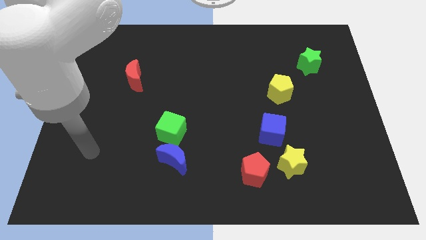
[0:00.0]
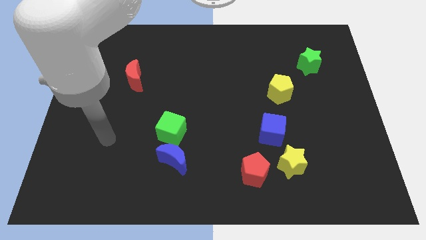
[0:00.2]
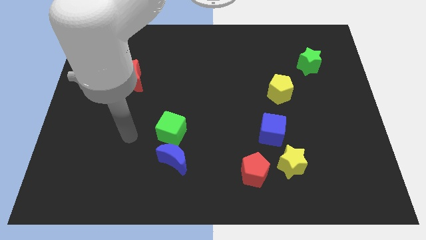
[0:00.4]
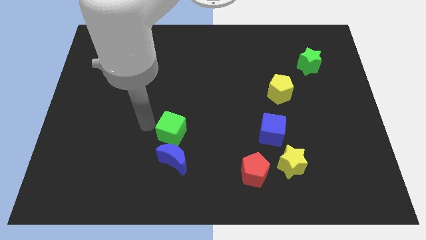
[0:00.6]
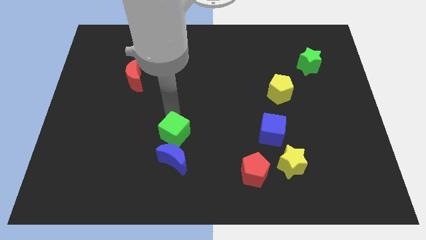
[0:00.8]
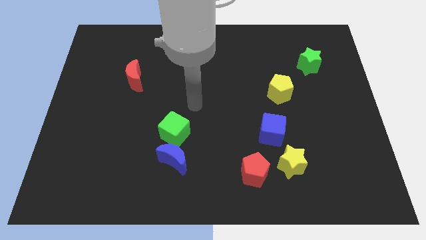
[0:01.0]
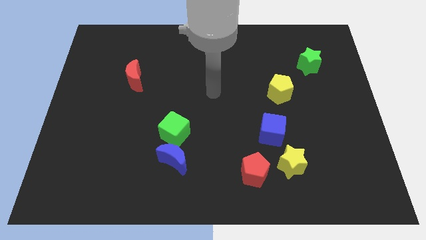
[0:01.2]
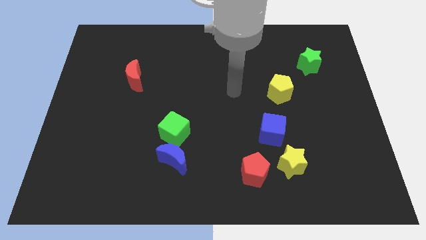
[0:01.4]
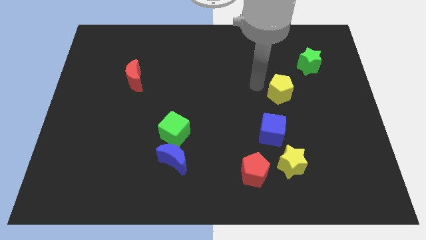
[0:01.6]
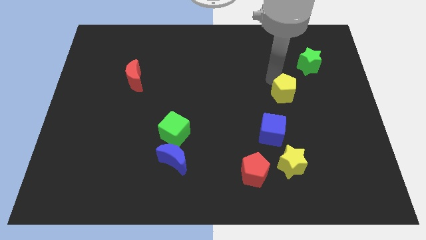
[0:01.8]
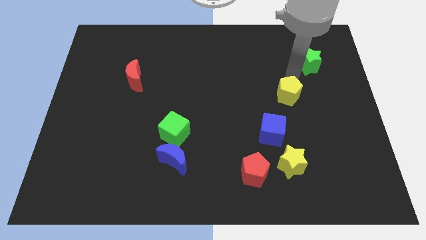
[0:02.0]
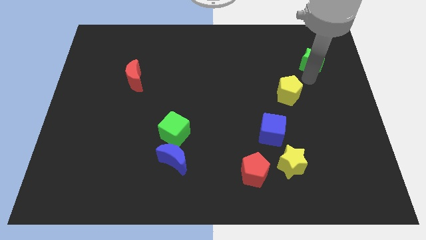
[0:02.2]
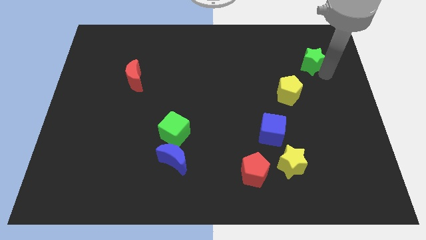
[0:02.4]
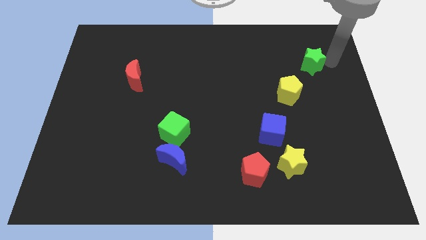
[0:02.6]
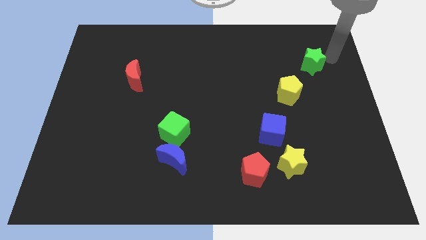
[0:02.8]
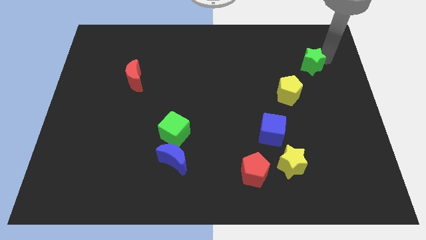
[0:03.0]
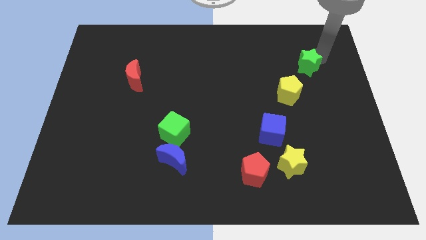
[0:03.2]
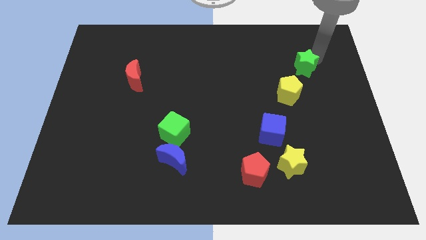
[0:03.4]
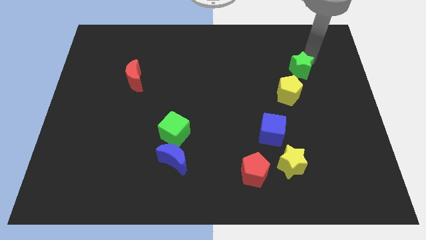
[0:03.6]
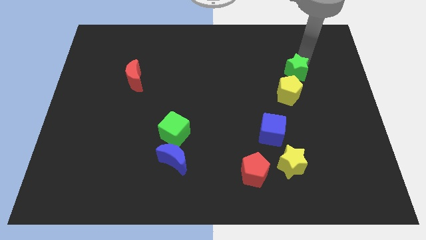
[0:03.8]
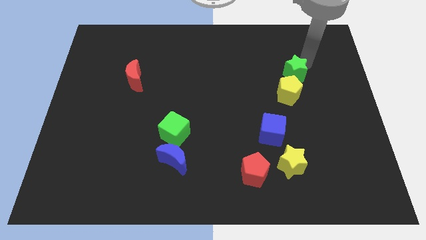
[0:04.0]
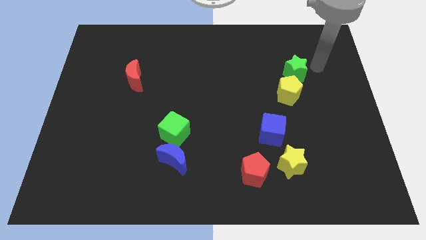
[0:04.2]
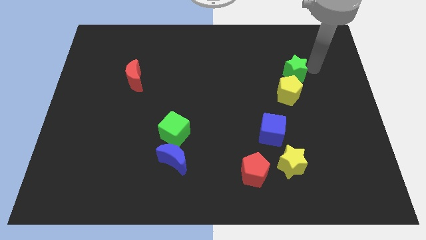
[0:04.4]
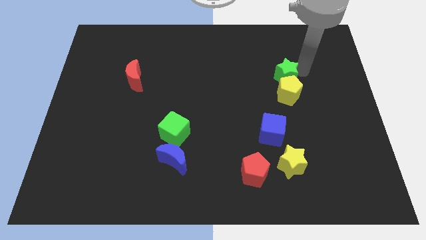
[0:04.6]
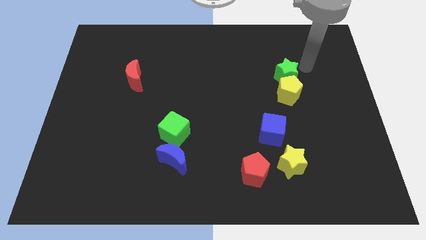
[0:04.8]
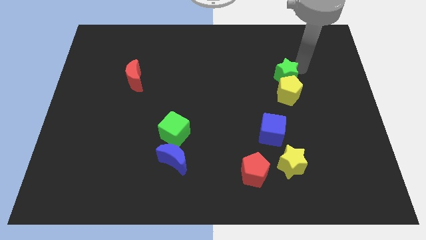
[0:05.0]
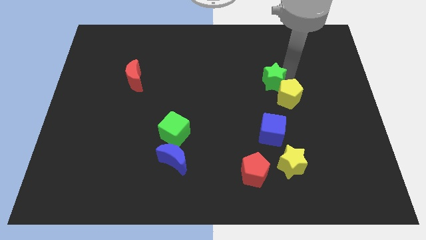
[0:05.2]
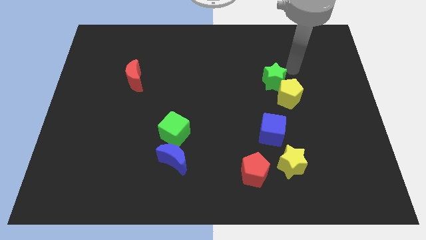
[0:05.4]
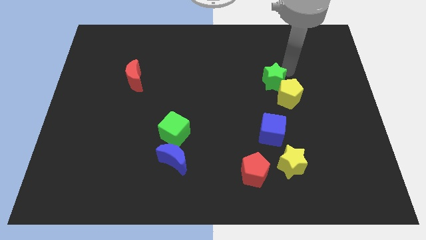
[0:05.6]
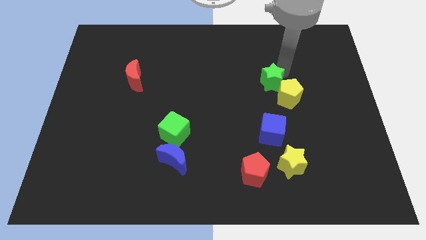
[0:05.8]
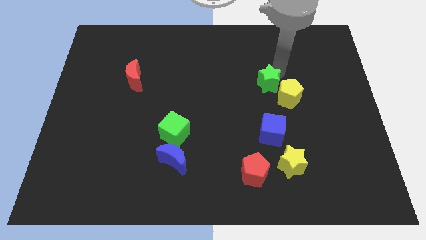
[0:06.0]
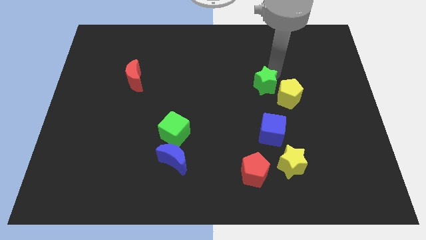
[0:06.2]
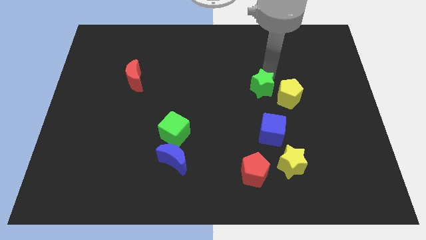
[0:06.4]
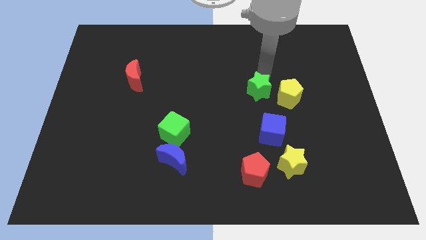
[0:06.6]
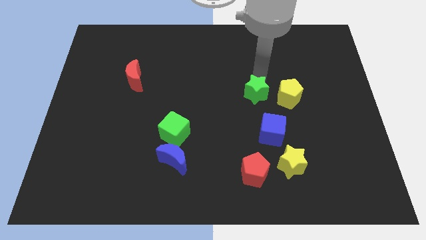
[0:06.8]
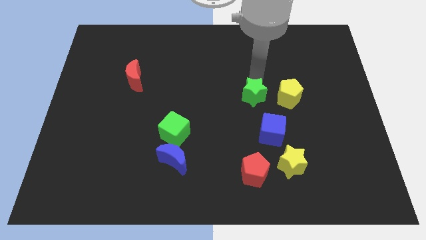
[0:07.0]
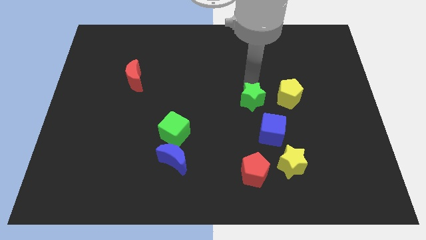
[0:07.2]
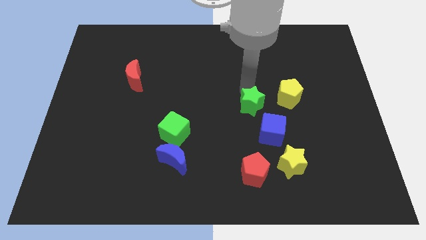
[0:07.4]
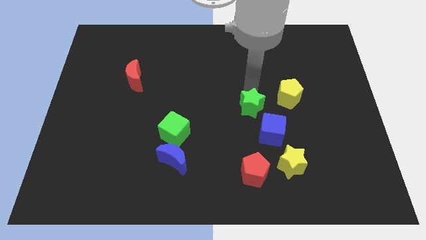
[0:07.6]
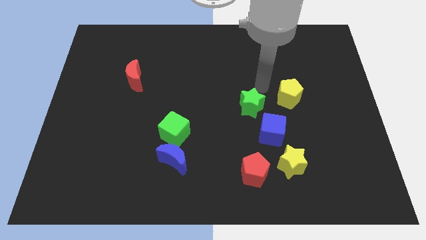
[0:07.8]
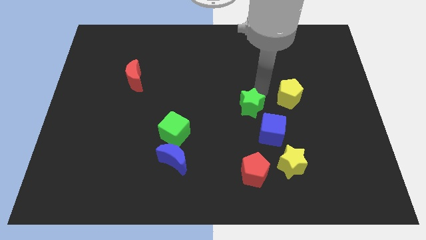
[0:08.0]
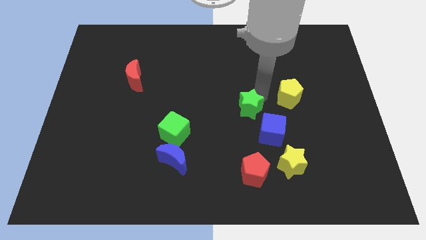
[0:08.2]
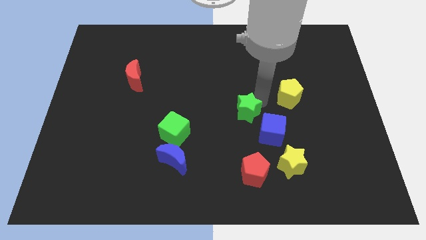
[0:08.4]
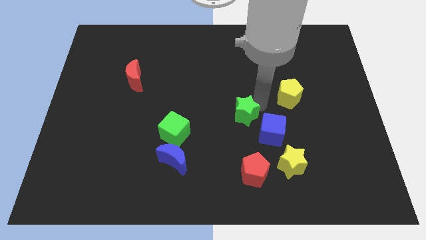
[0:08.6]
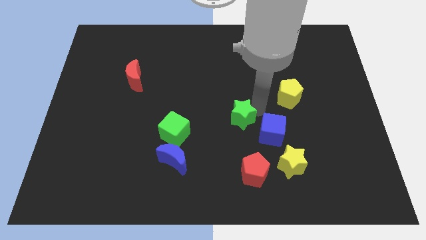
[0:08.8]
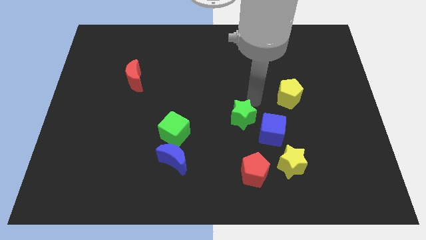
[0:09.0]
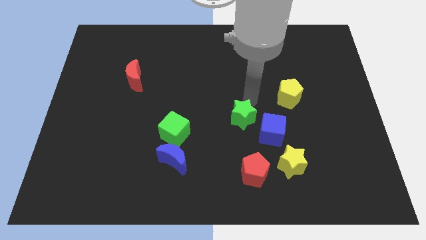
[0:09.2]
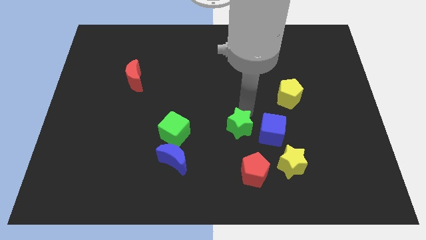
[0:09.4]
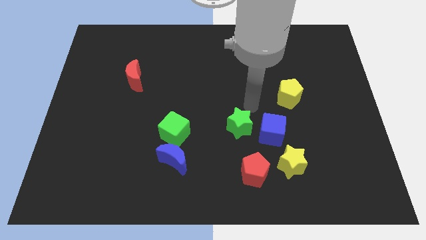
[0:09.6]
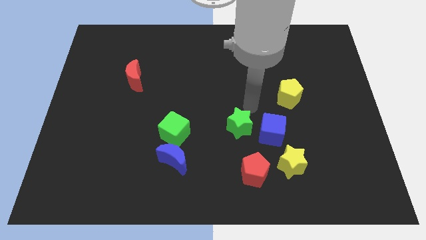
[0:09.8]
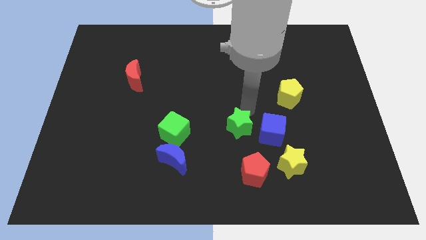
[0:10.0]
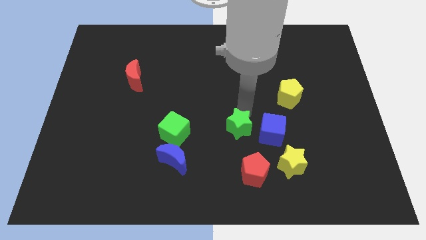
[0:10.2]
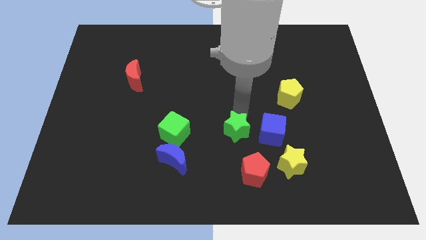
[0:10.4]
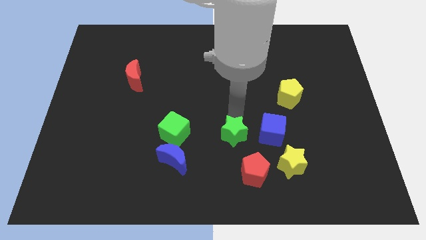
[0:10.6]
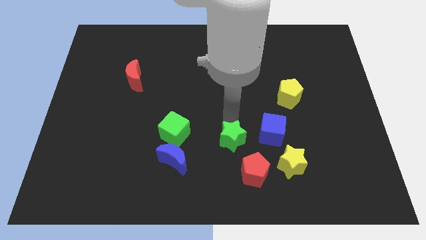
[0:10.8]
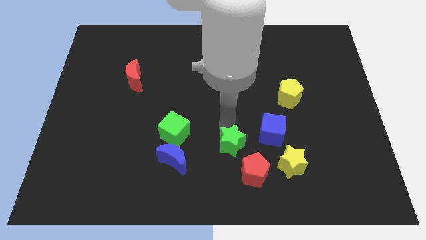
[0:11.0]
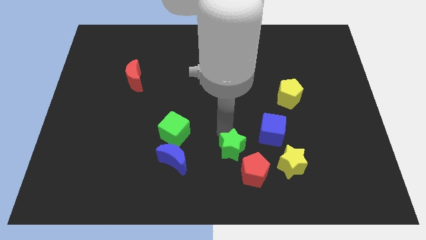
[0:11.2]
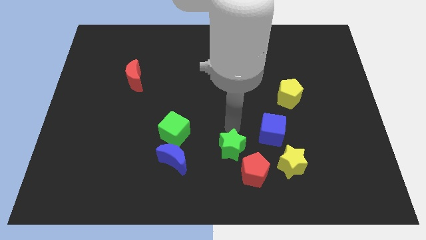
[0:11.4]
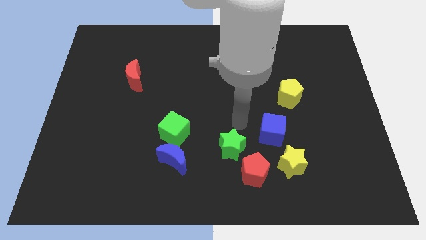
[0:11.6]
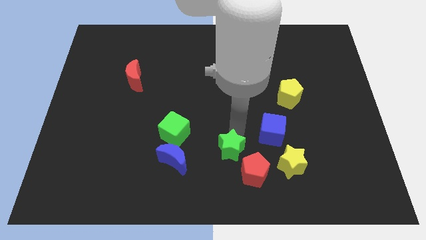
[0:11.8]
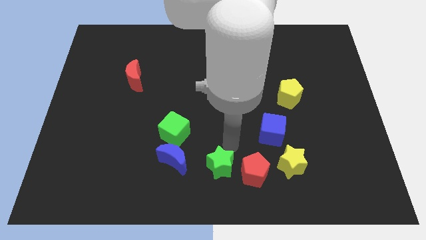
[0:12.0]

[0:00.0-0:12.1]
put the green star to the bottom side
